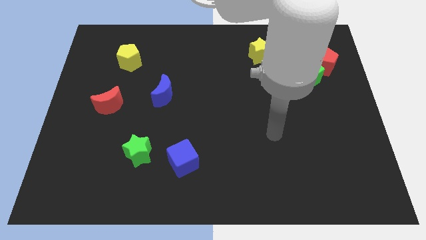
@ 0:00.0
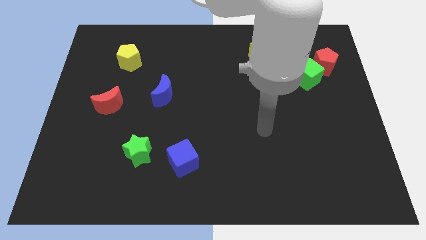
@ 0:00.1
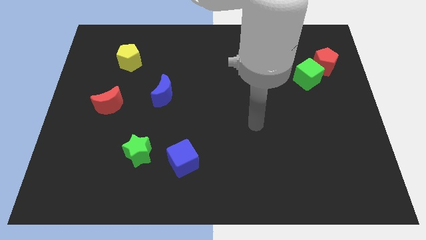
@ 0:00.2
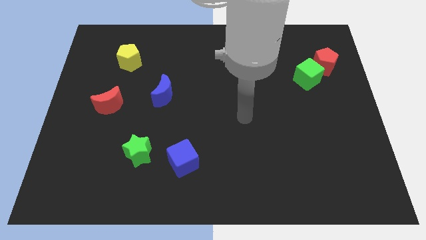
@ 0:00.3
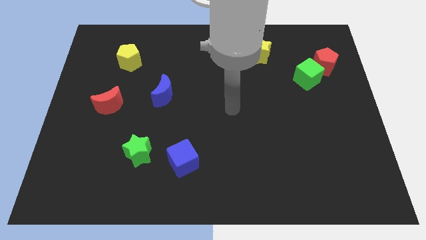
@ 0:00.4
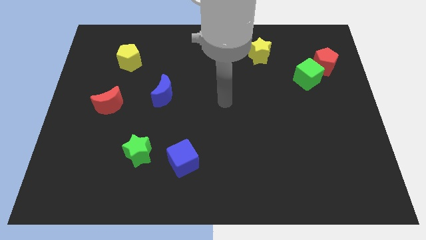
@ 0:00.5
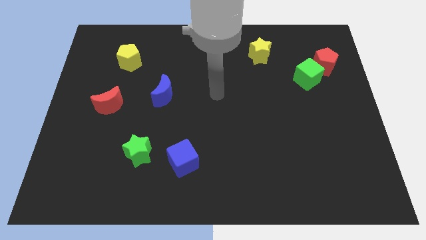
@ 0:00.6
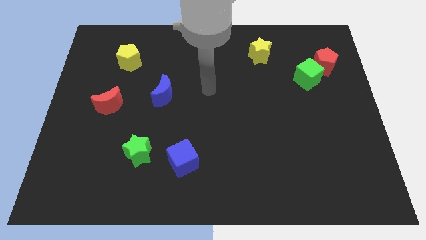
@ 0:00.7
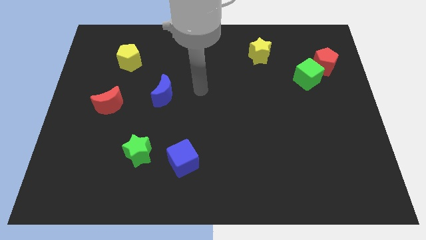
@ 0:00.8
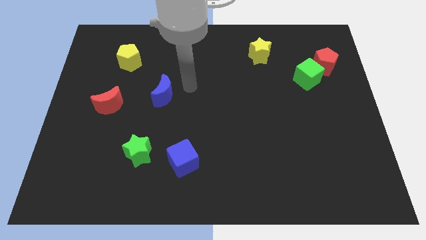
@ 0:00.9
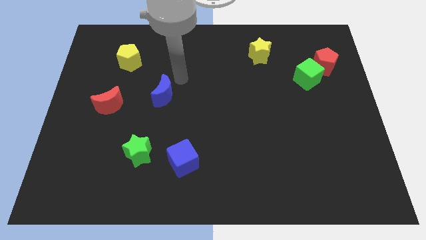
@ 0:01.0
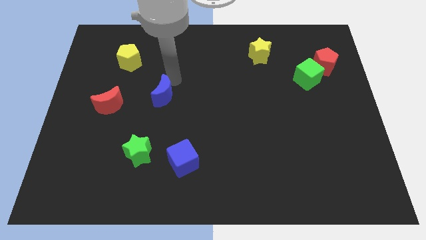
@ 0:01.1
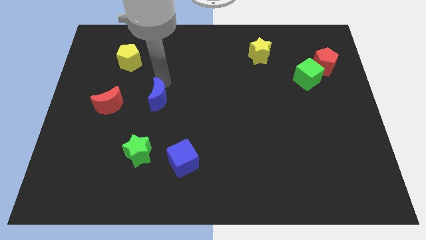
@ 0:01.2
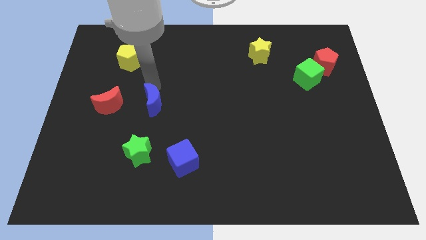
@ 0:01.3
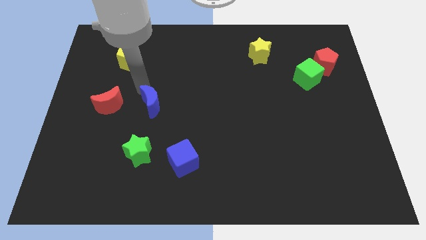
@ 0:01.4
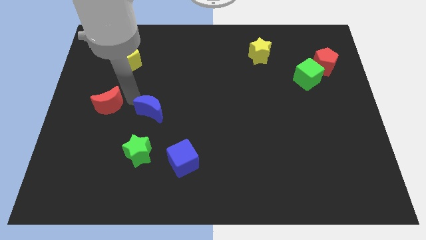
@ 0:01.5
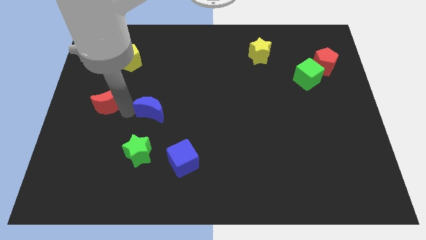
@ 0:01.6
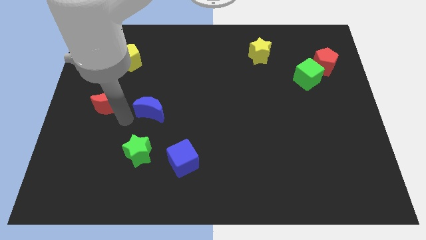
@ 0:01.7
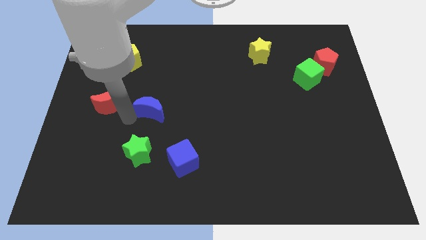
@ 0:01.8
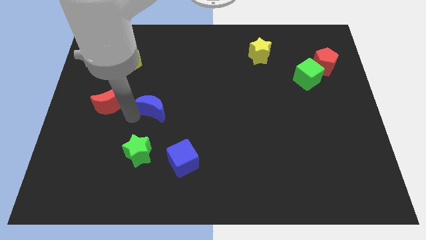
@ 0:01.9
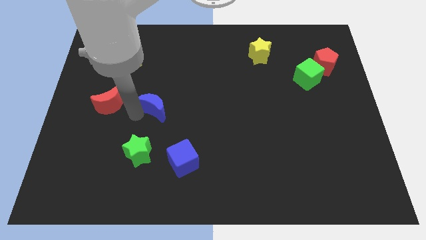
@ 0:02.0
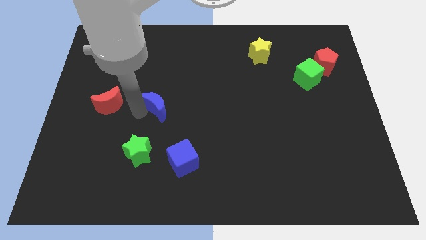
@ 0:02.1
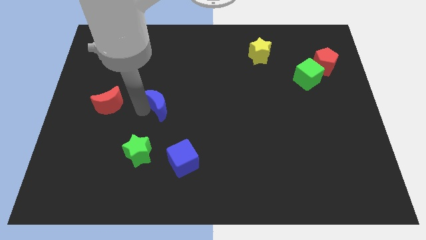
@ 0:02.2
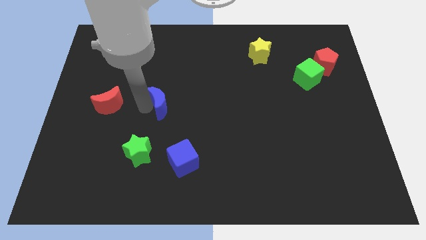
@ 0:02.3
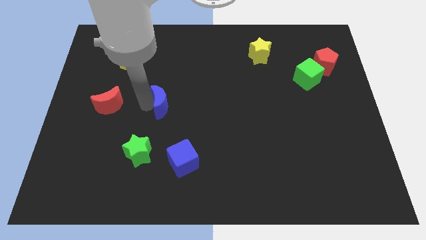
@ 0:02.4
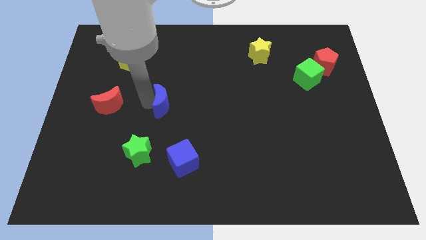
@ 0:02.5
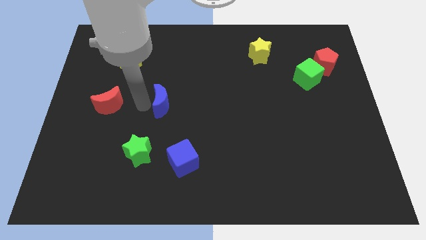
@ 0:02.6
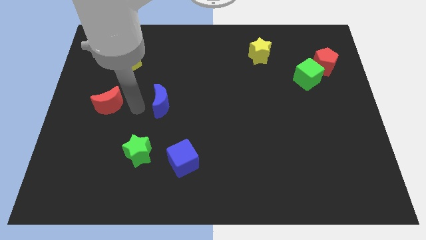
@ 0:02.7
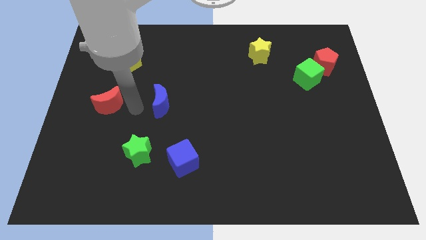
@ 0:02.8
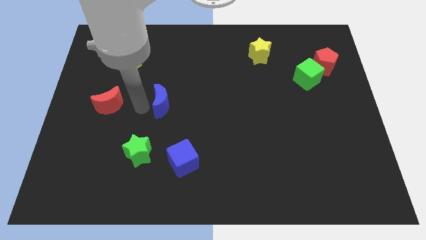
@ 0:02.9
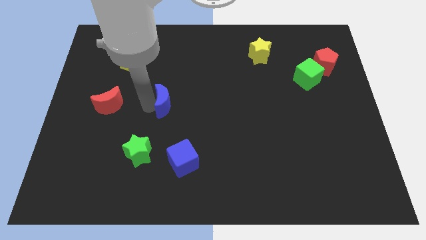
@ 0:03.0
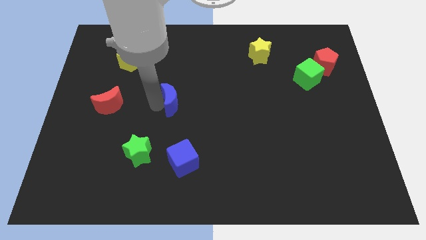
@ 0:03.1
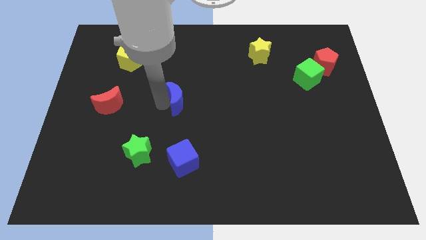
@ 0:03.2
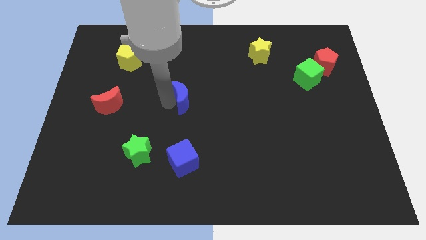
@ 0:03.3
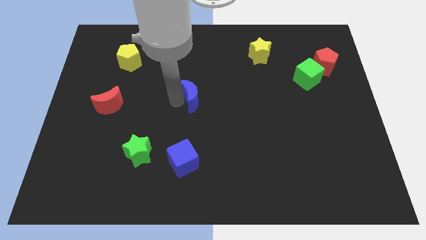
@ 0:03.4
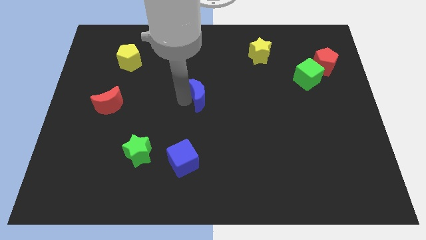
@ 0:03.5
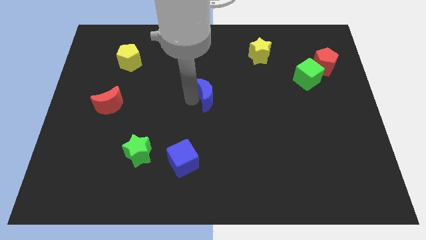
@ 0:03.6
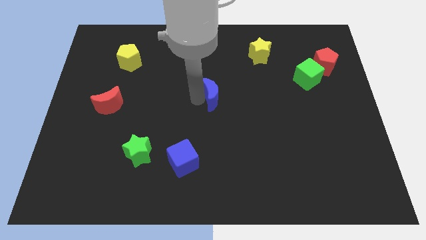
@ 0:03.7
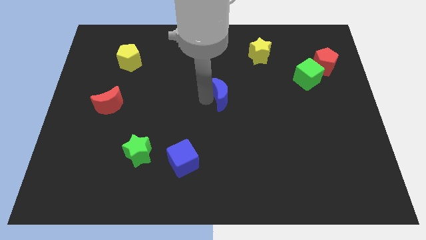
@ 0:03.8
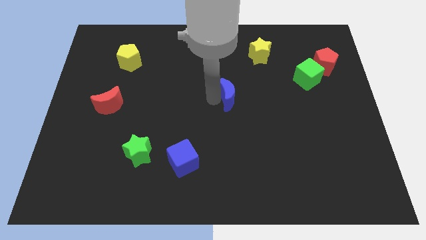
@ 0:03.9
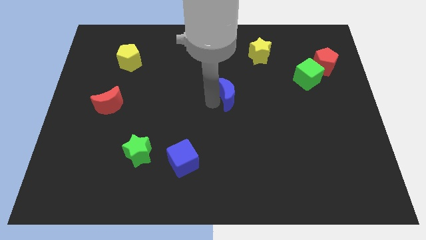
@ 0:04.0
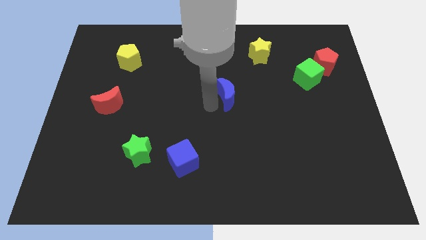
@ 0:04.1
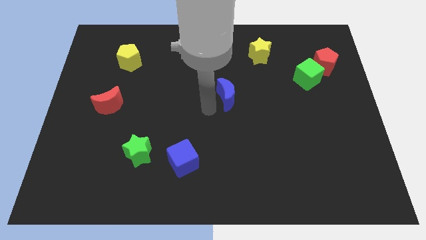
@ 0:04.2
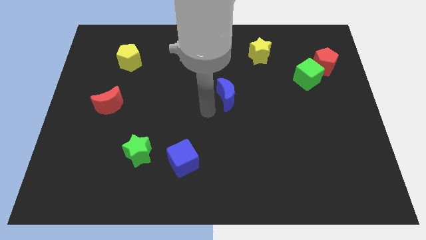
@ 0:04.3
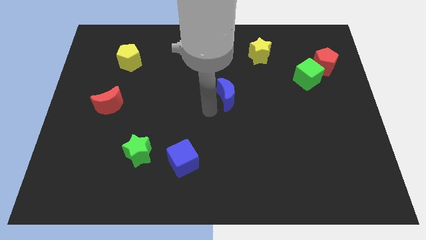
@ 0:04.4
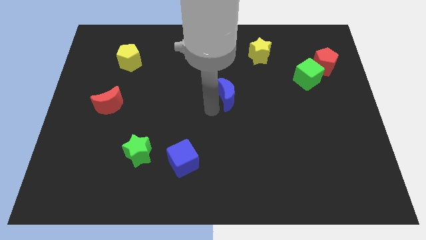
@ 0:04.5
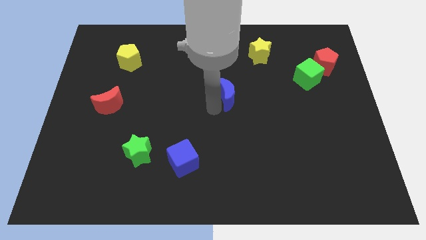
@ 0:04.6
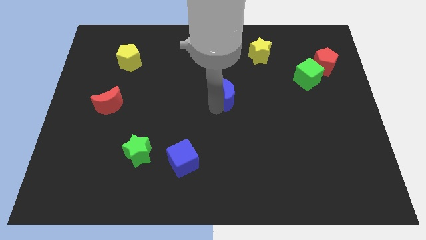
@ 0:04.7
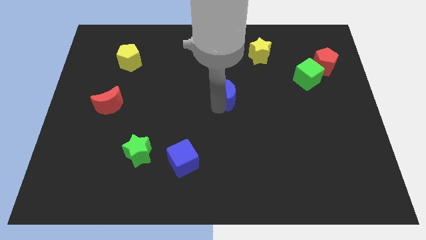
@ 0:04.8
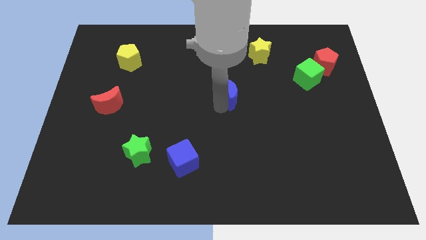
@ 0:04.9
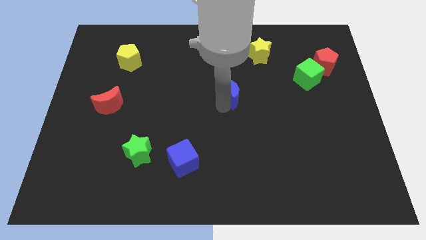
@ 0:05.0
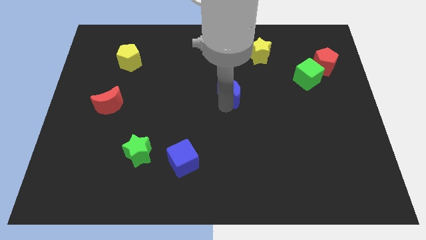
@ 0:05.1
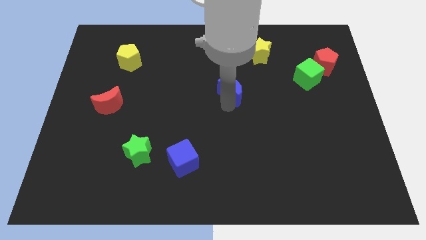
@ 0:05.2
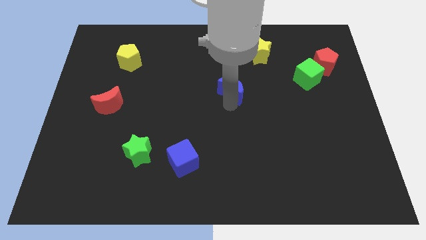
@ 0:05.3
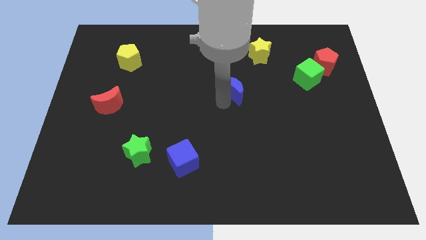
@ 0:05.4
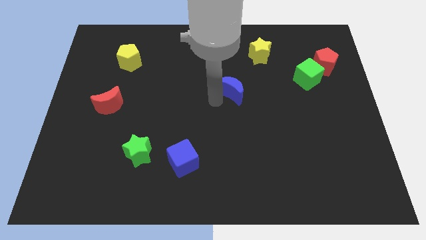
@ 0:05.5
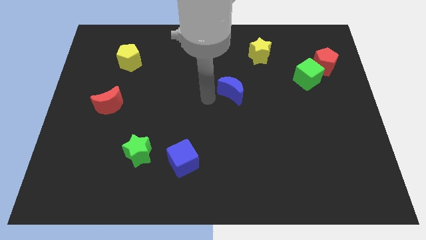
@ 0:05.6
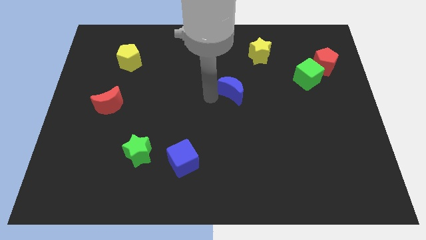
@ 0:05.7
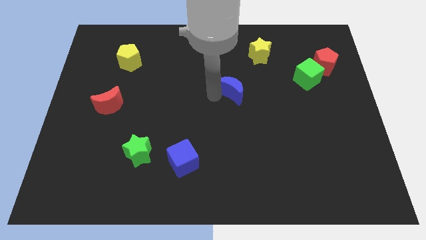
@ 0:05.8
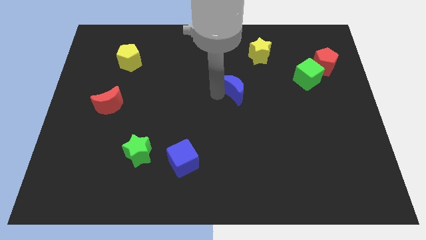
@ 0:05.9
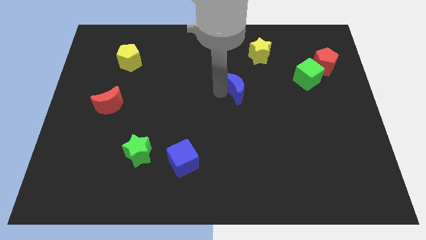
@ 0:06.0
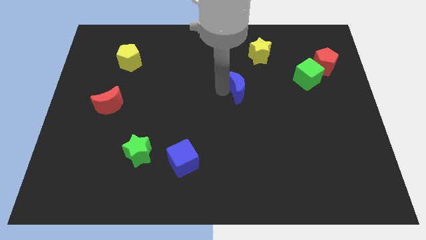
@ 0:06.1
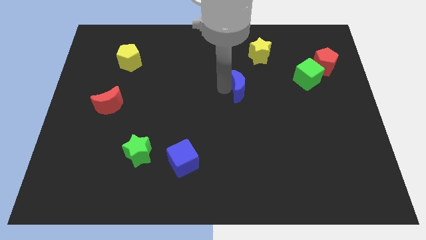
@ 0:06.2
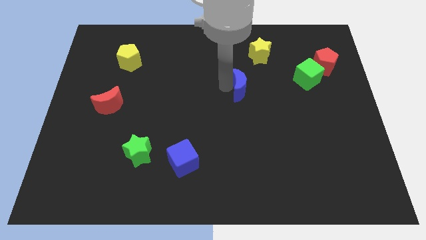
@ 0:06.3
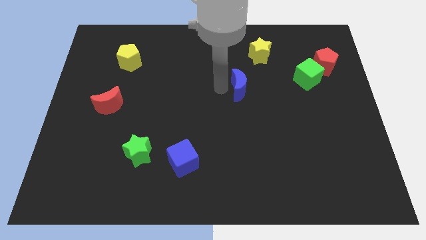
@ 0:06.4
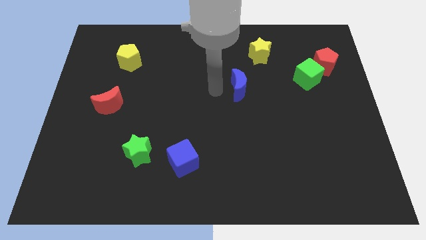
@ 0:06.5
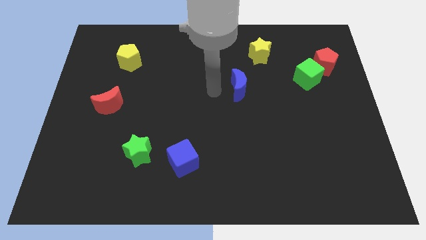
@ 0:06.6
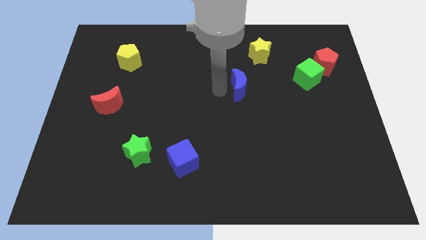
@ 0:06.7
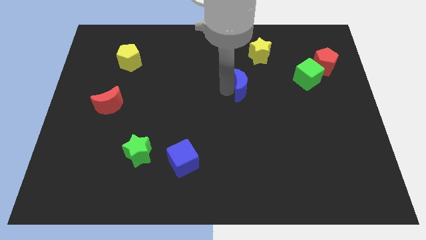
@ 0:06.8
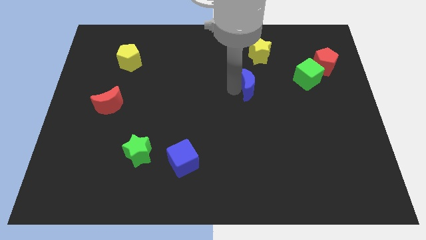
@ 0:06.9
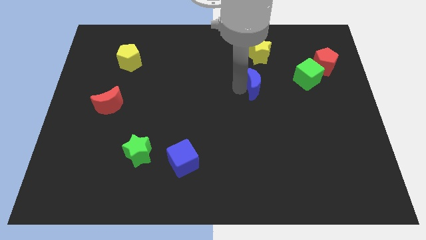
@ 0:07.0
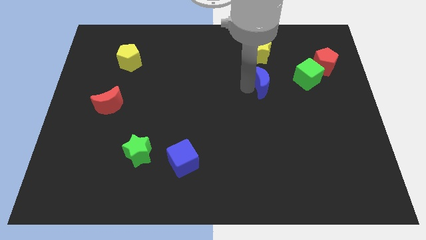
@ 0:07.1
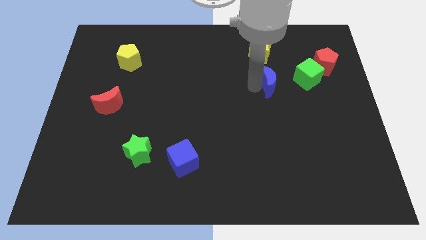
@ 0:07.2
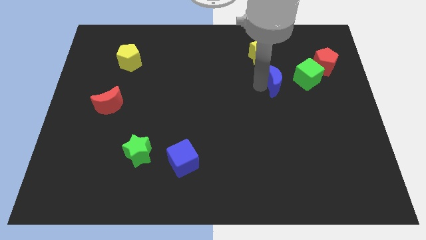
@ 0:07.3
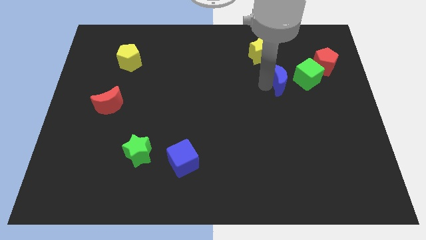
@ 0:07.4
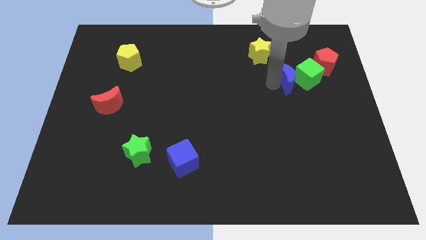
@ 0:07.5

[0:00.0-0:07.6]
push the blue moon close to the green cube

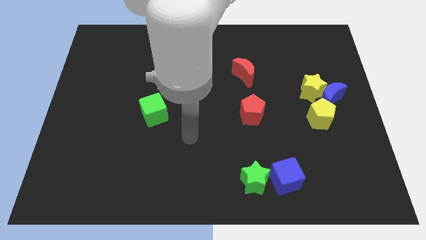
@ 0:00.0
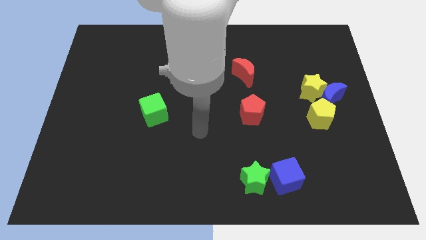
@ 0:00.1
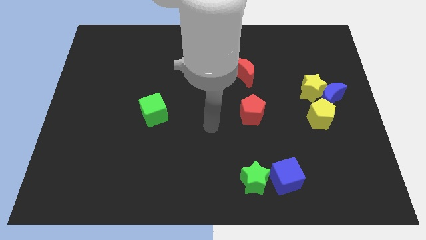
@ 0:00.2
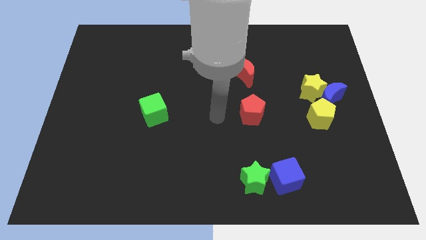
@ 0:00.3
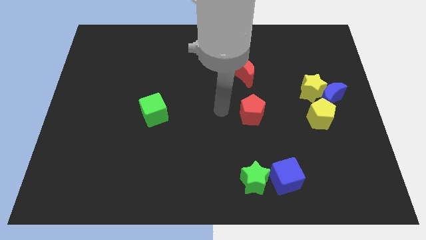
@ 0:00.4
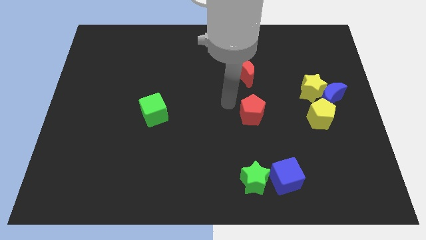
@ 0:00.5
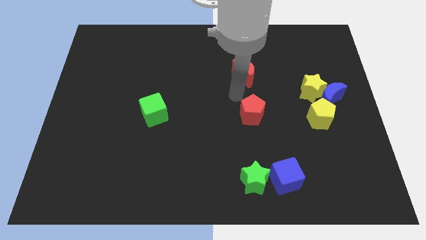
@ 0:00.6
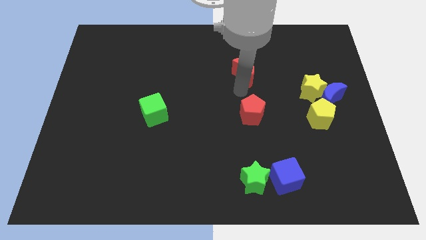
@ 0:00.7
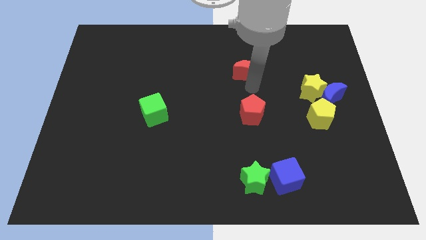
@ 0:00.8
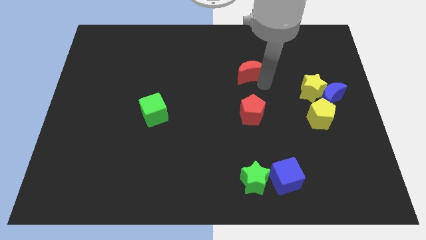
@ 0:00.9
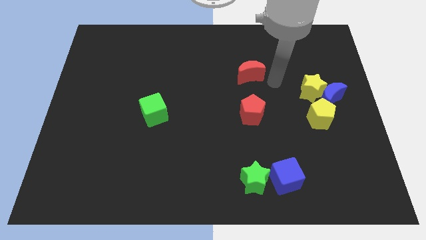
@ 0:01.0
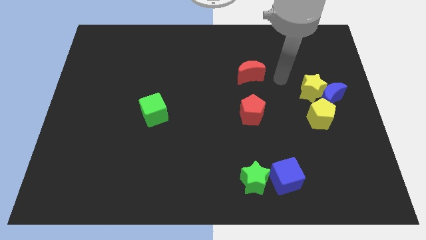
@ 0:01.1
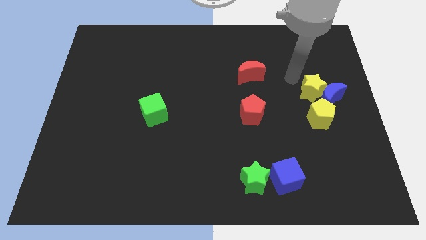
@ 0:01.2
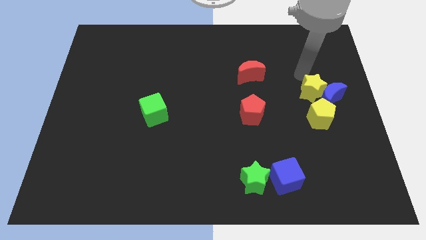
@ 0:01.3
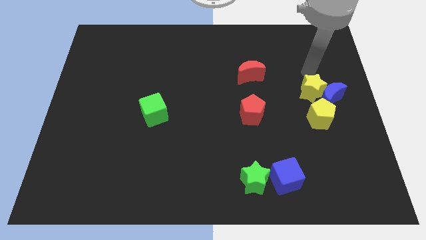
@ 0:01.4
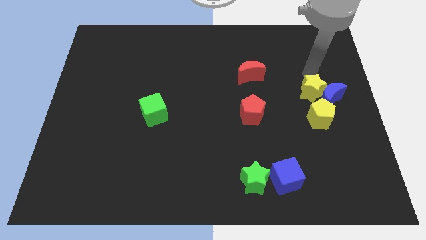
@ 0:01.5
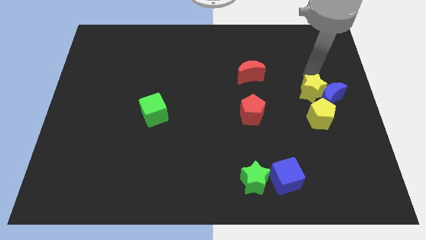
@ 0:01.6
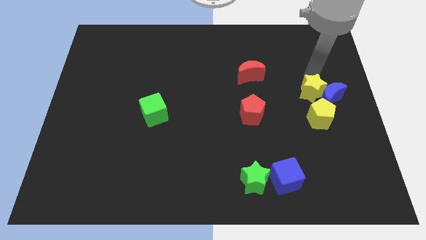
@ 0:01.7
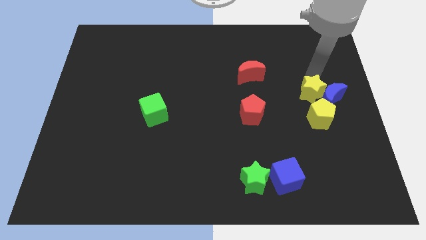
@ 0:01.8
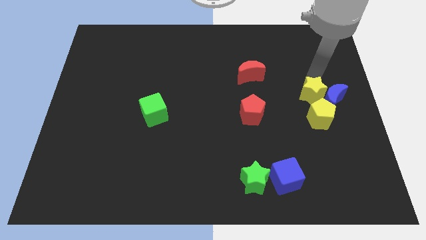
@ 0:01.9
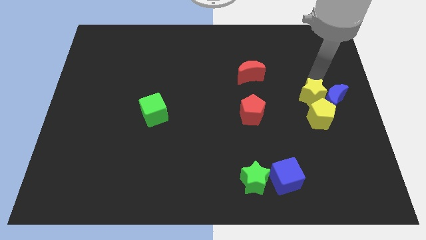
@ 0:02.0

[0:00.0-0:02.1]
put the yellow star to the yellow pentagon
